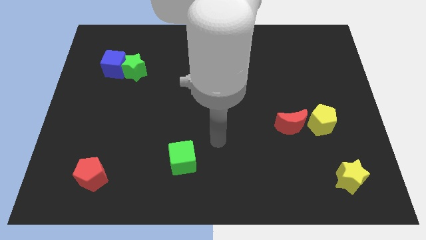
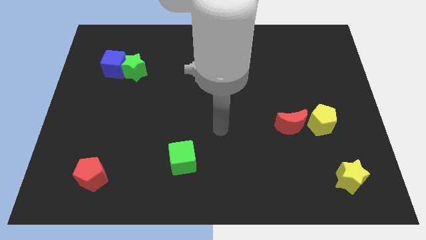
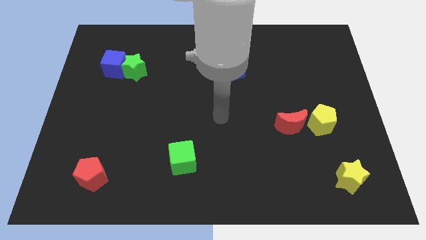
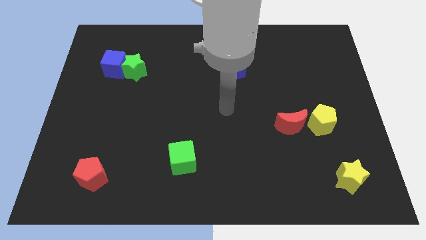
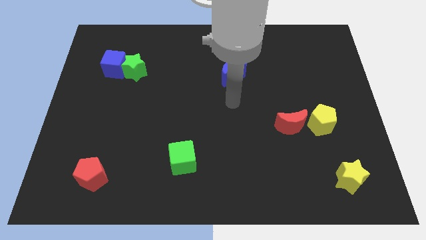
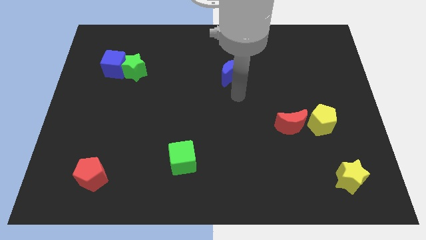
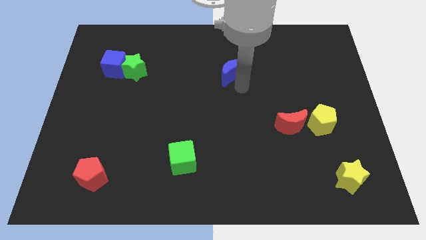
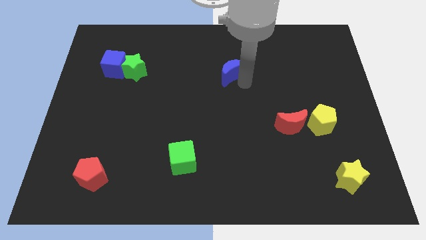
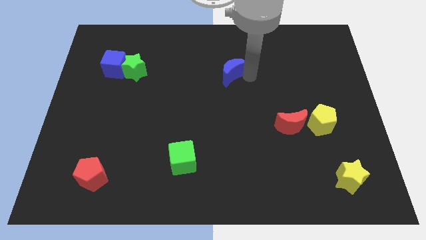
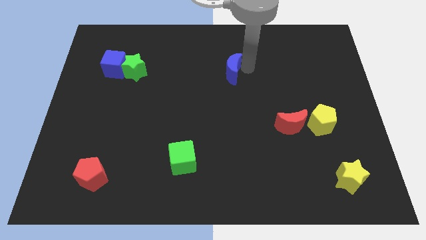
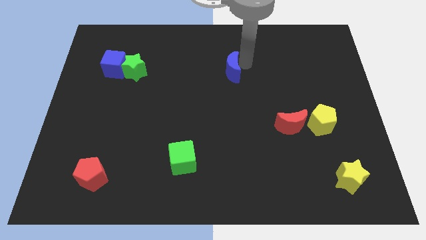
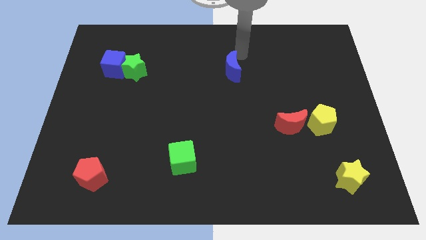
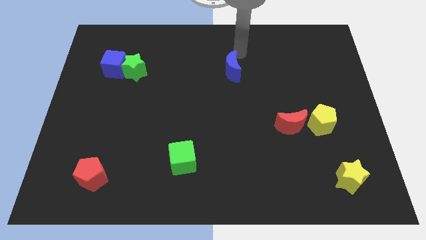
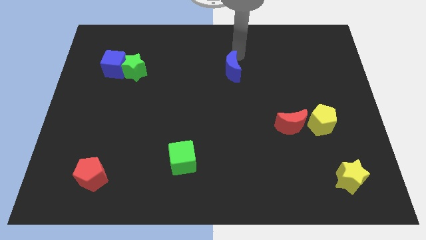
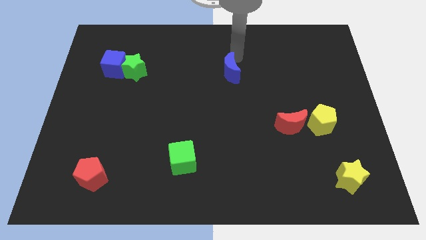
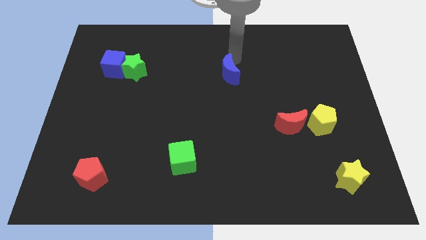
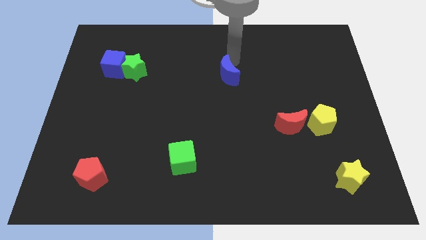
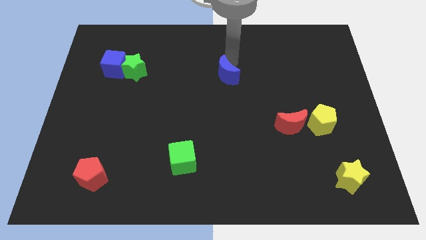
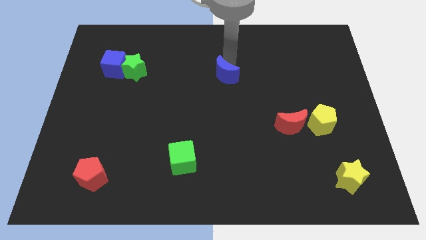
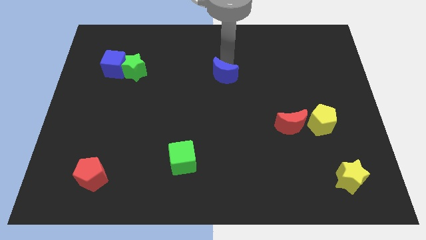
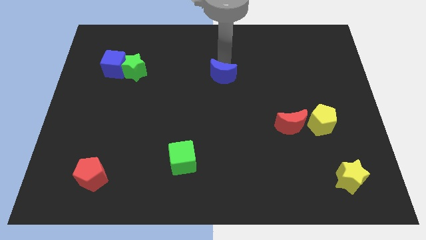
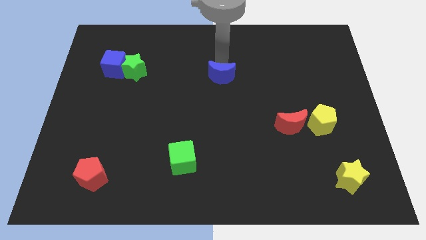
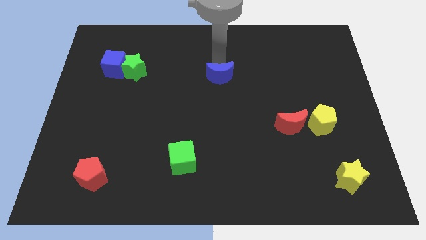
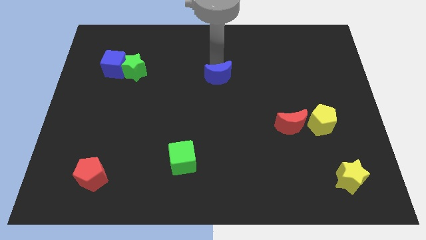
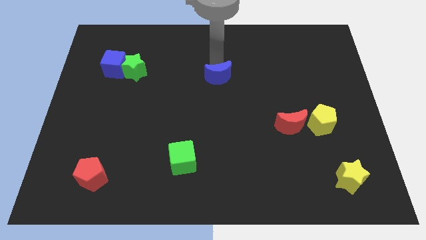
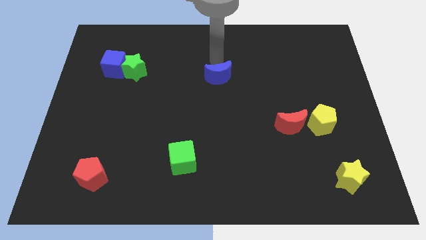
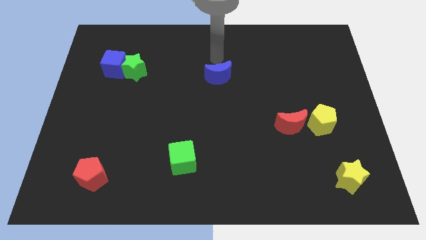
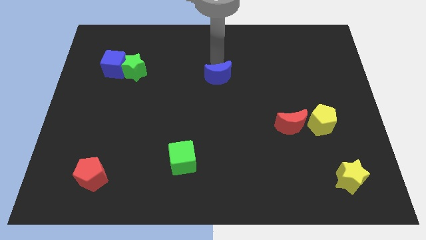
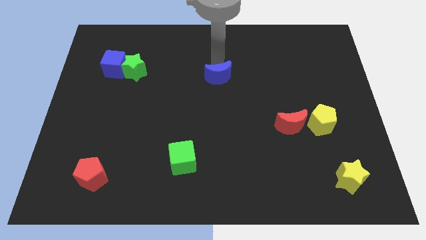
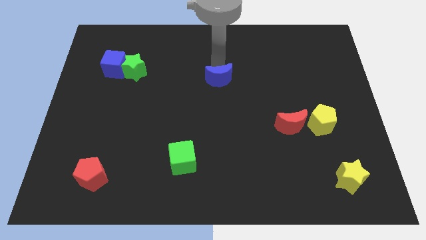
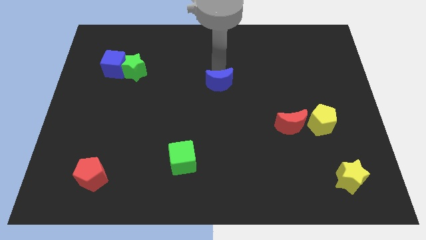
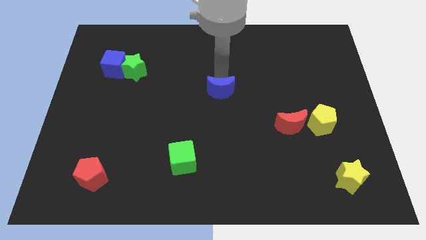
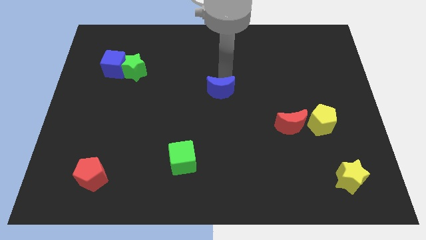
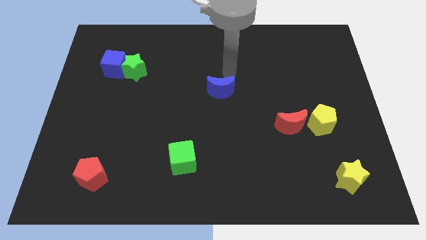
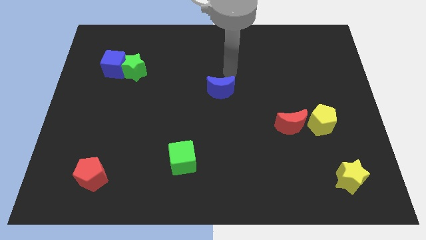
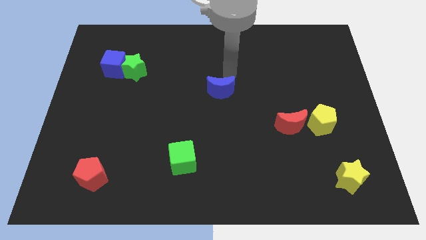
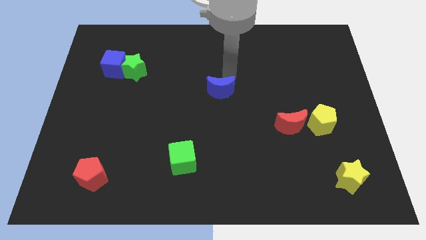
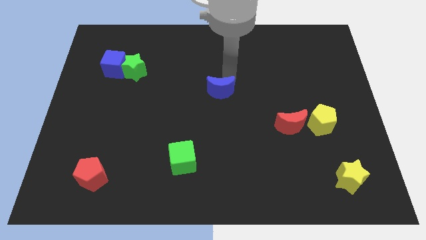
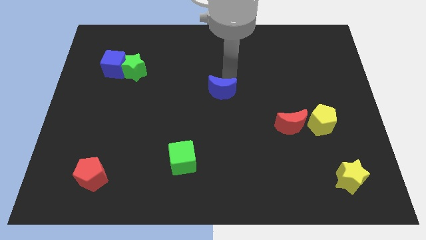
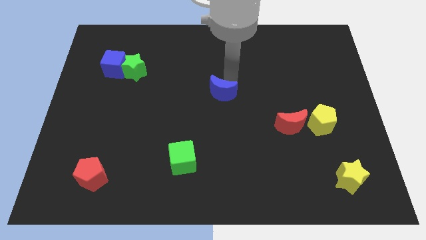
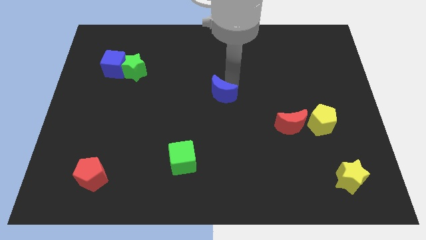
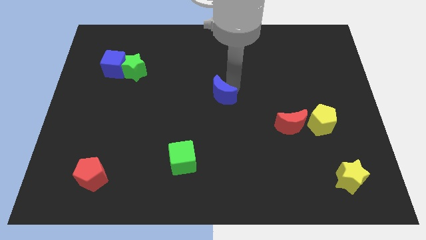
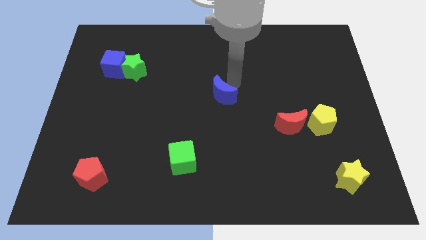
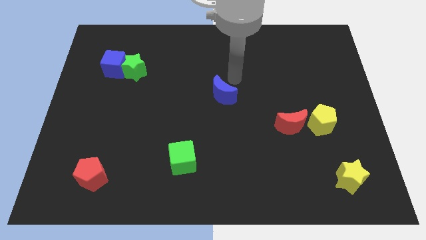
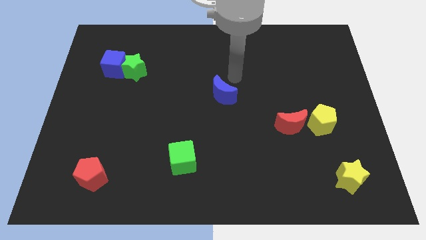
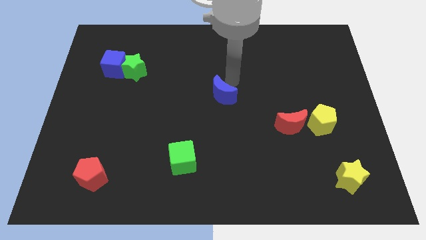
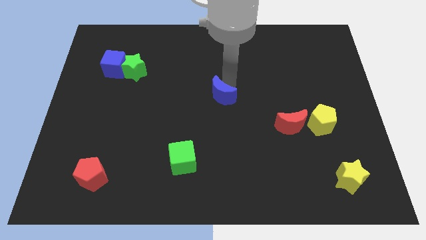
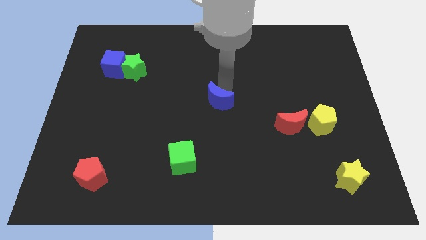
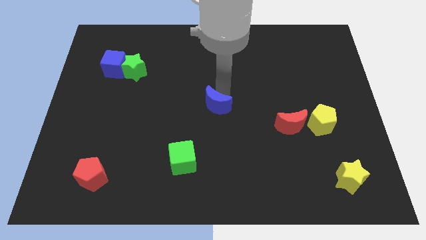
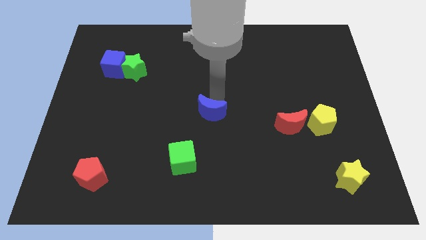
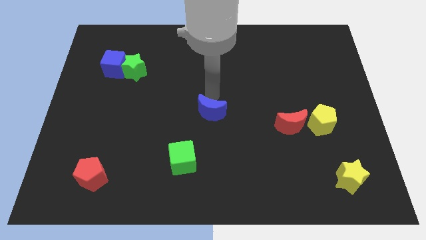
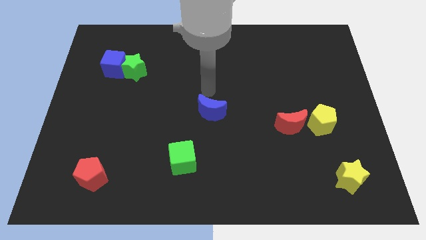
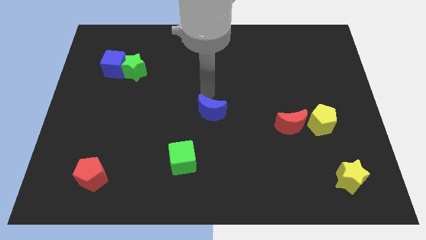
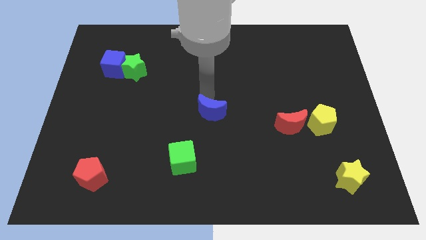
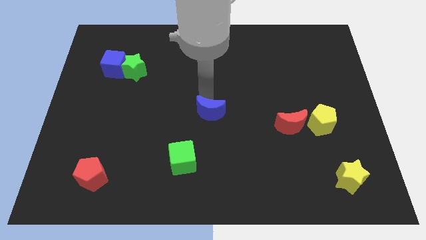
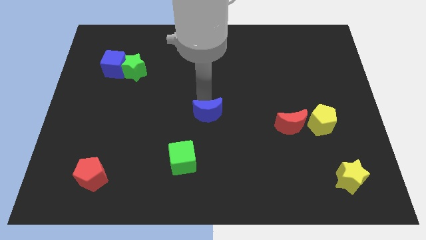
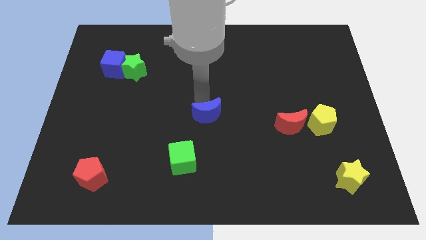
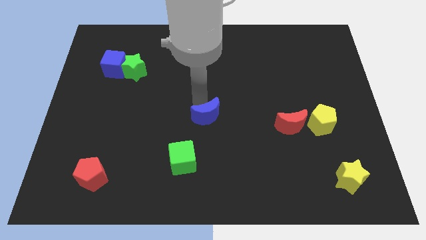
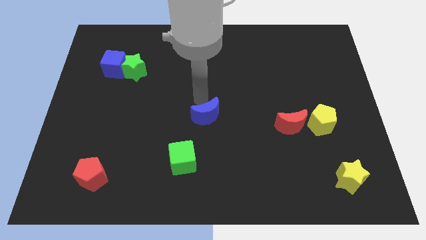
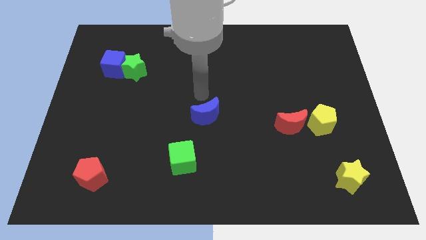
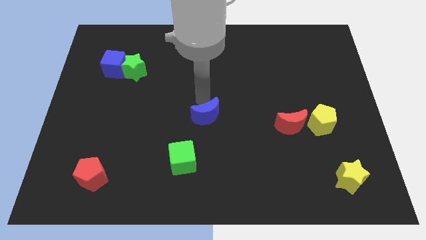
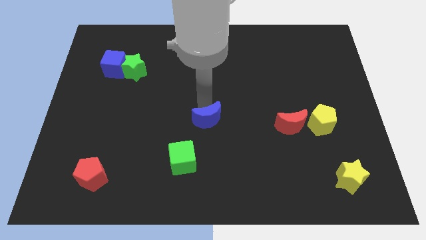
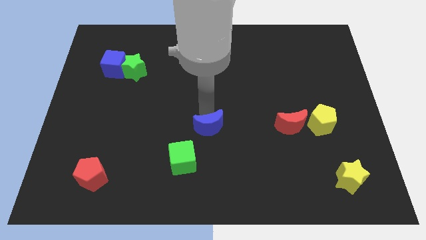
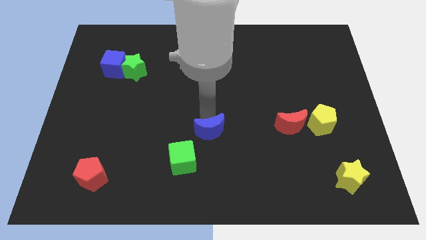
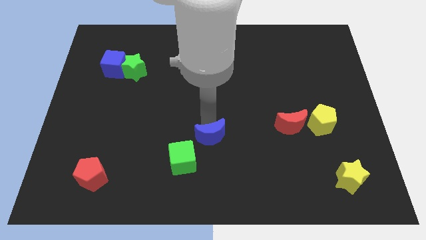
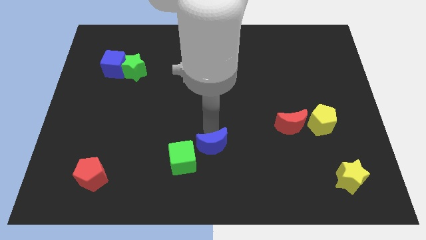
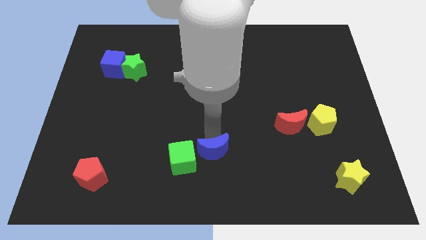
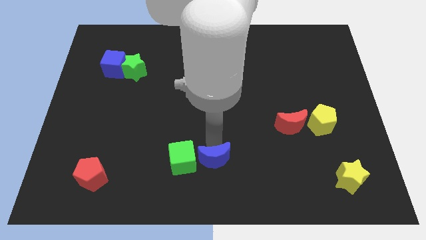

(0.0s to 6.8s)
put the blue moon to the bottom

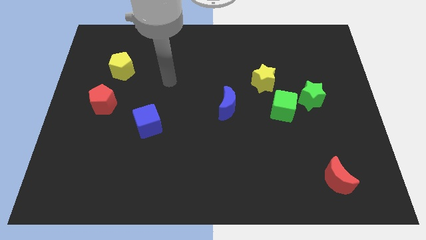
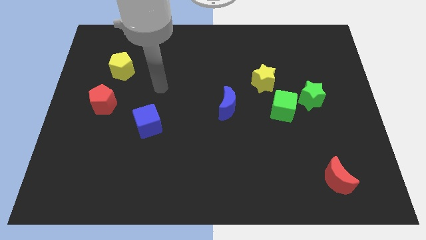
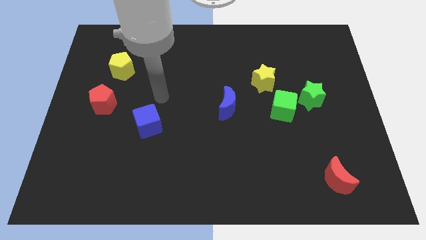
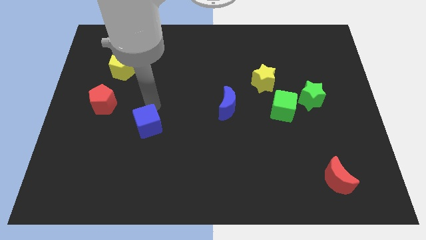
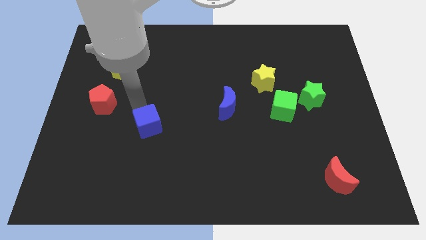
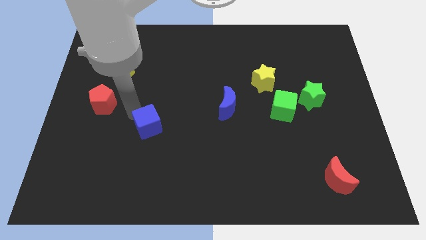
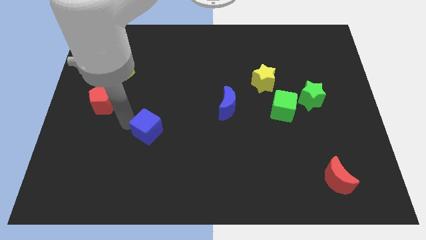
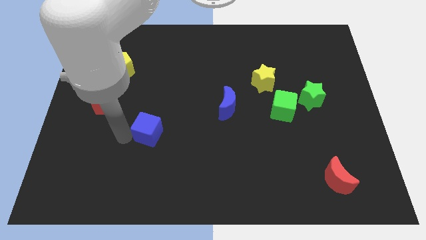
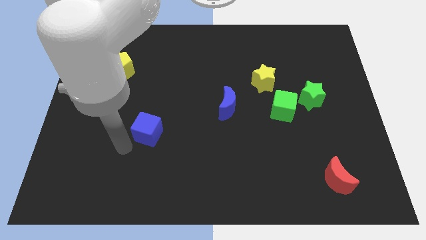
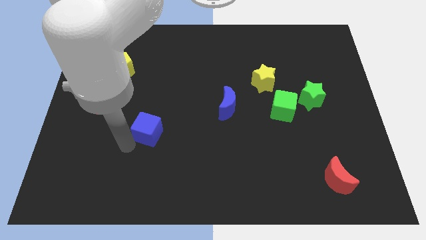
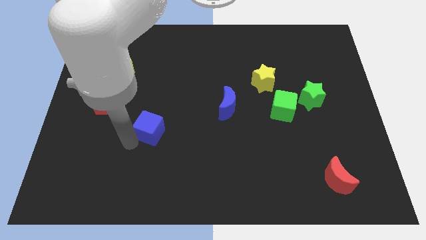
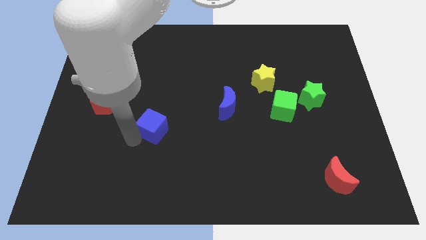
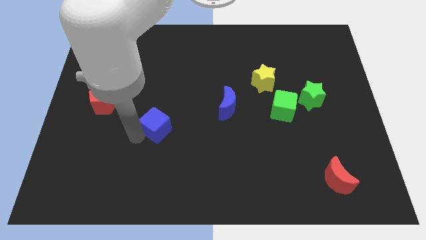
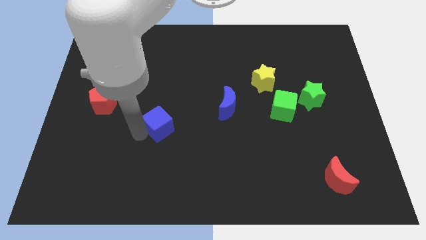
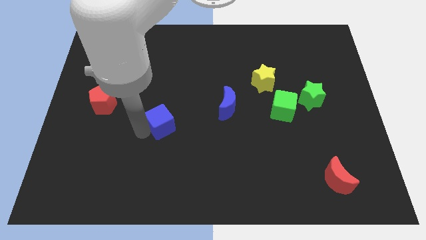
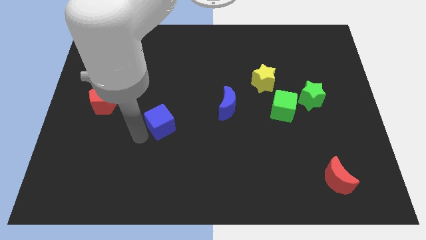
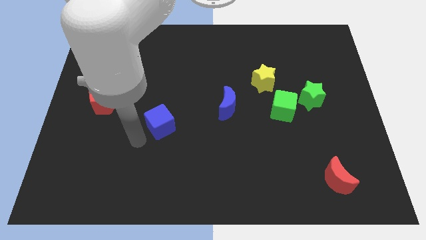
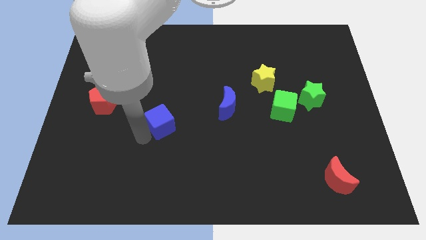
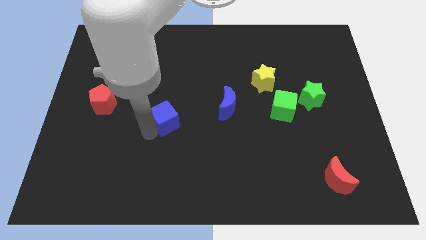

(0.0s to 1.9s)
slide the blue cube to the middle of the board

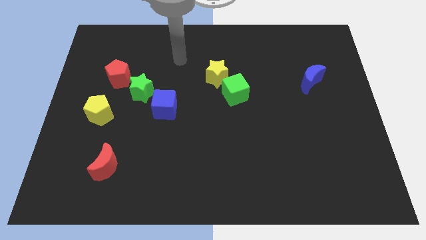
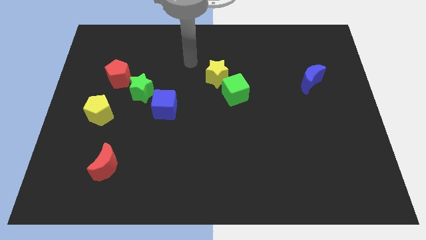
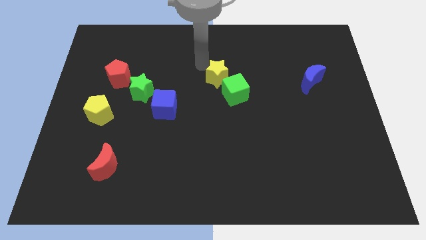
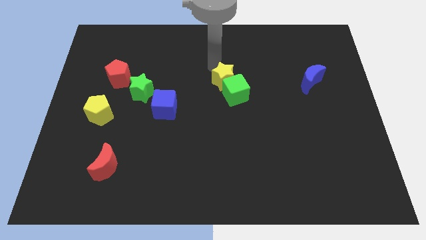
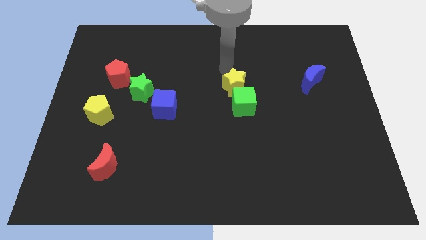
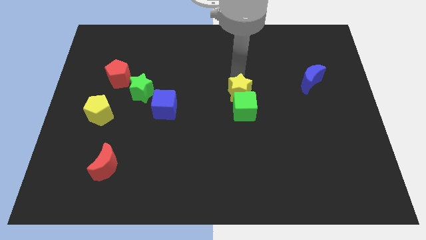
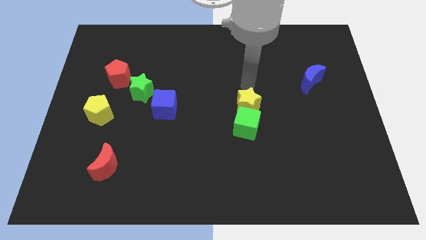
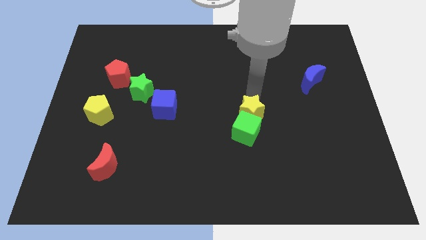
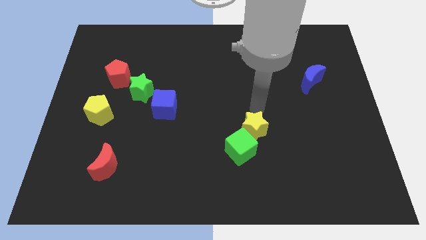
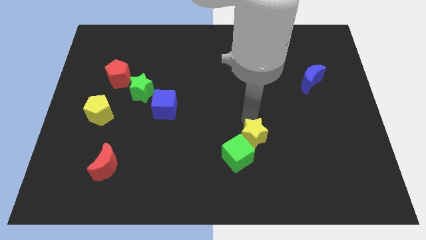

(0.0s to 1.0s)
move the green cube to the bottom
